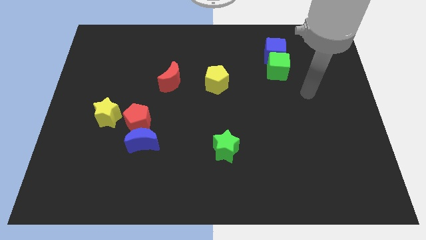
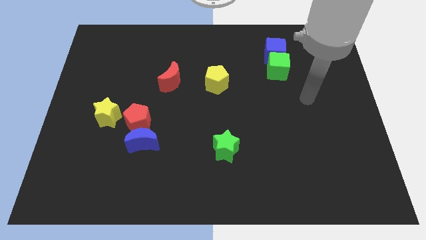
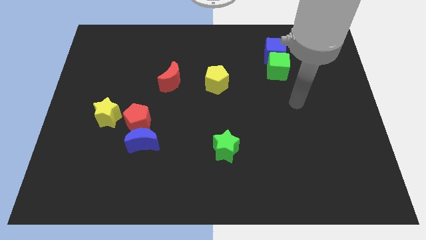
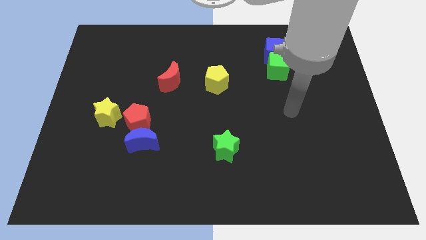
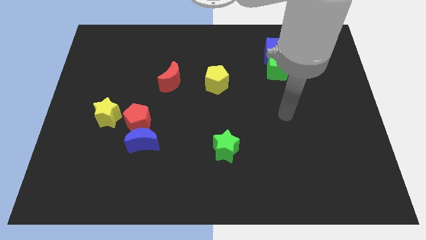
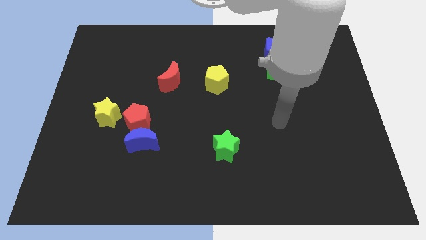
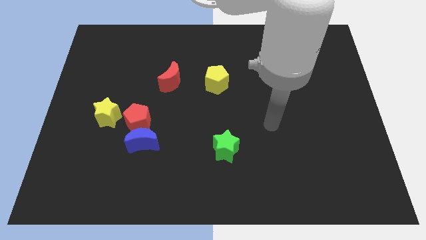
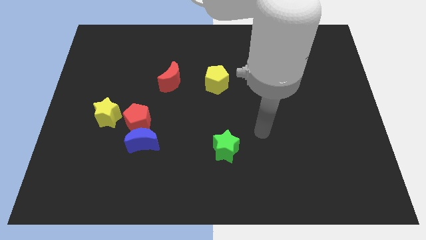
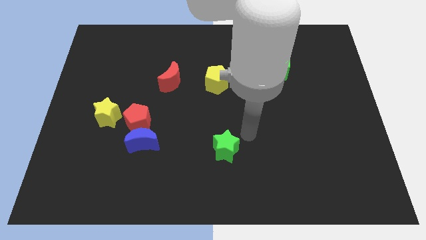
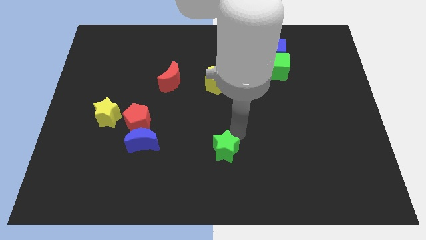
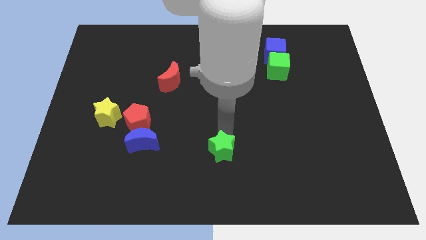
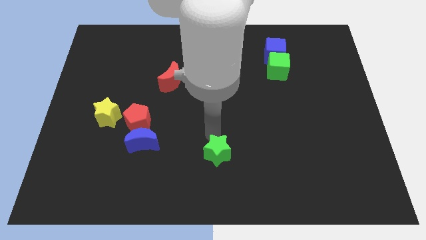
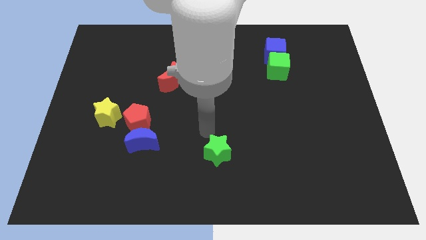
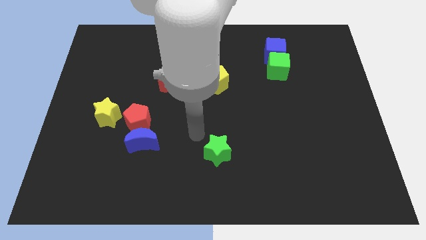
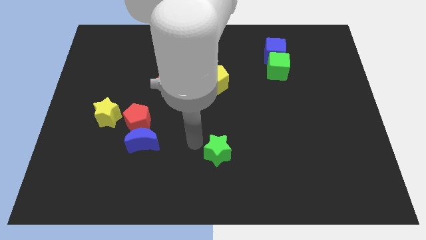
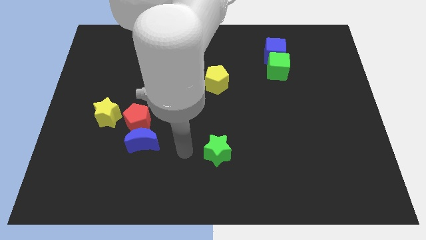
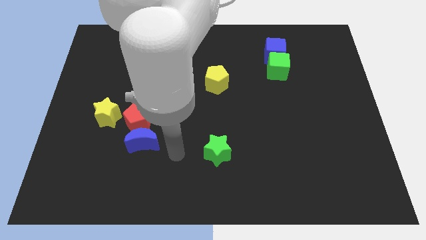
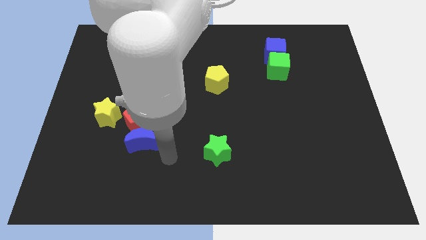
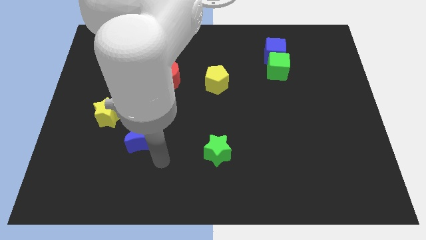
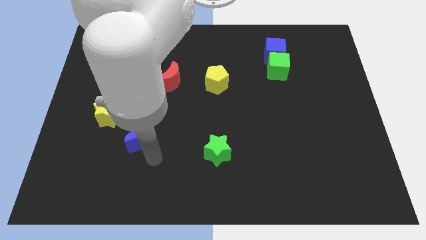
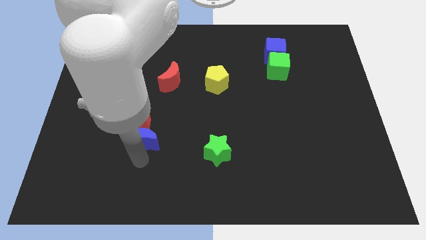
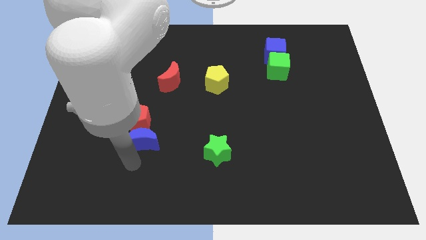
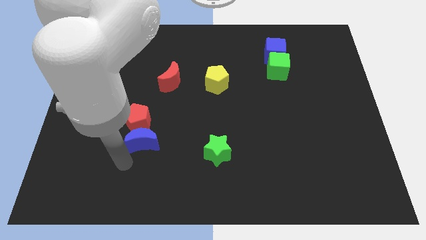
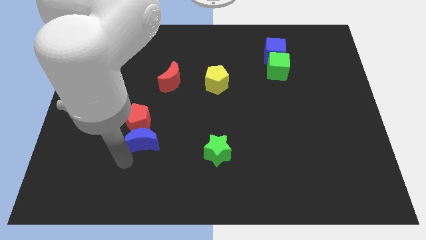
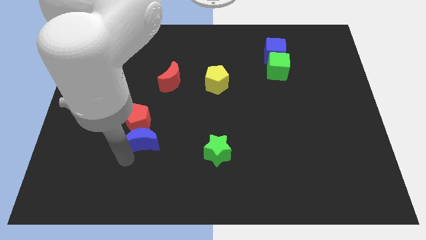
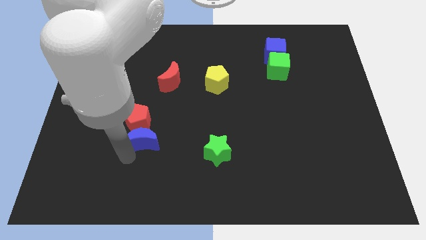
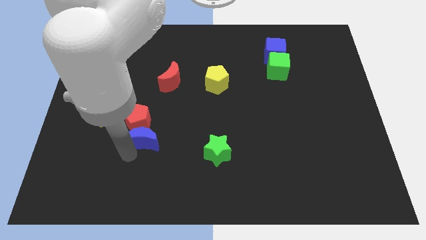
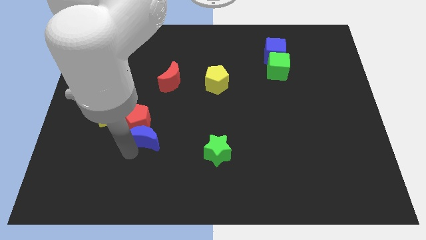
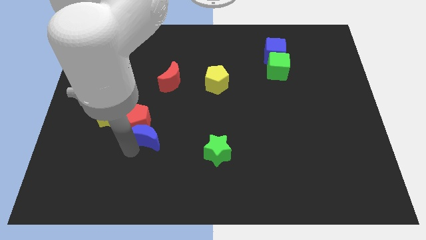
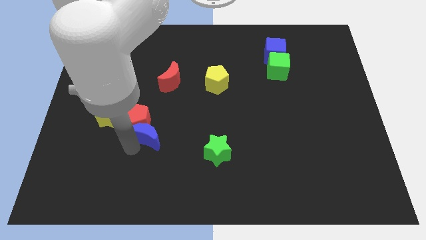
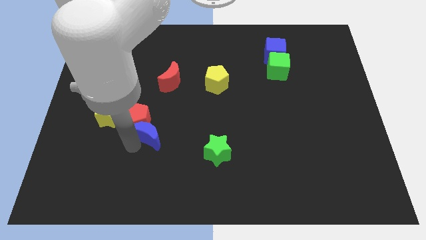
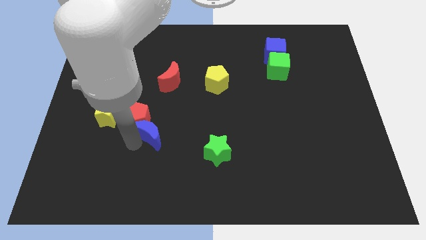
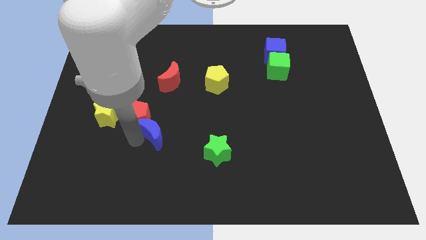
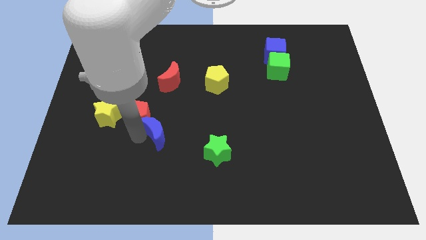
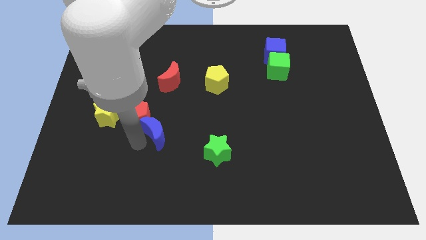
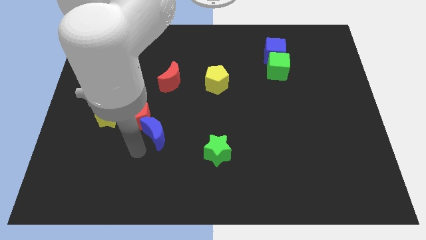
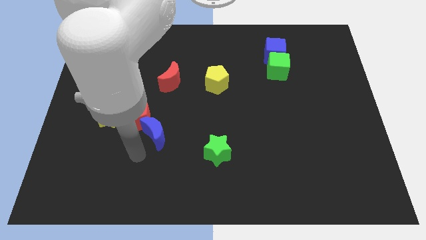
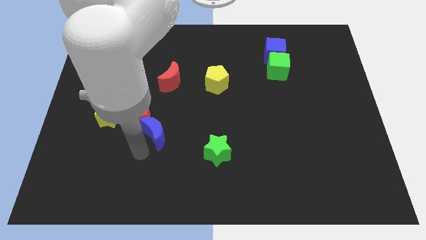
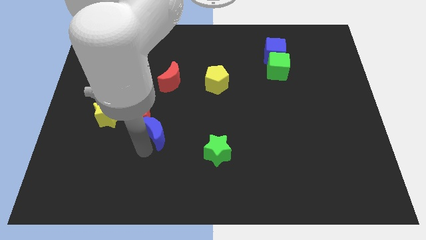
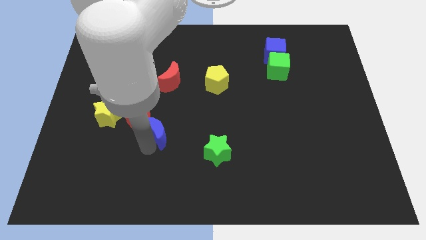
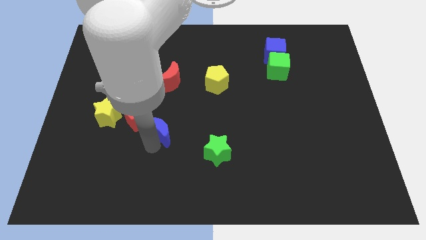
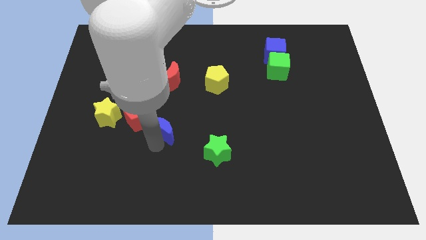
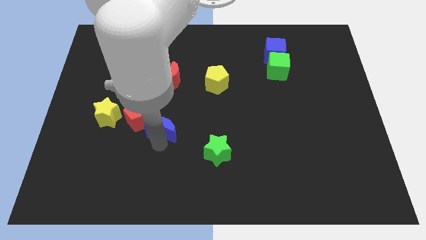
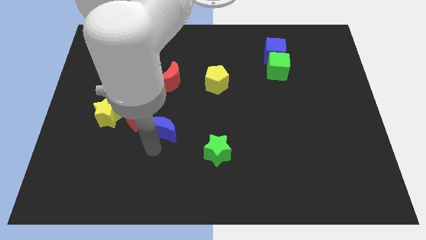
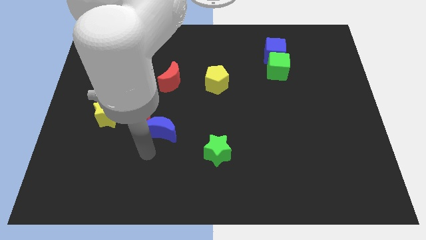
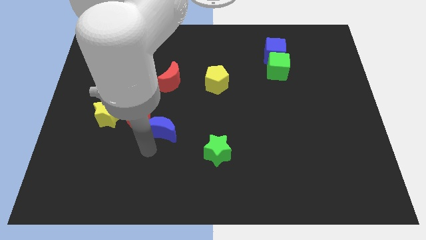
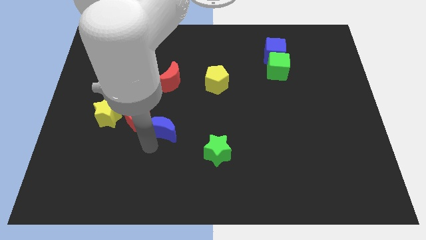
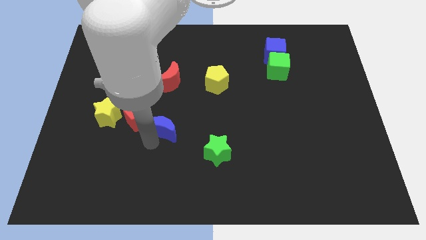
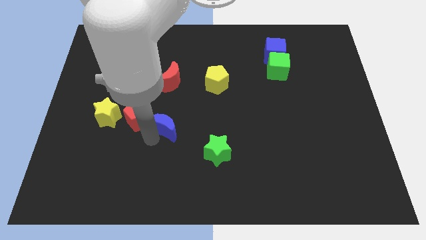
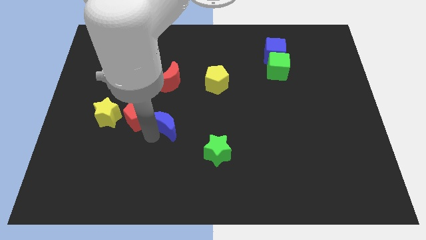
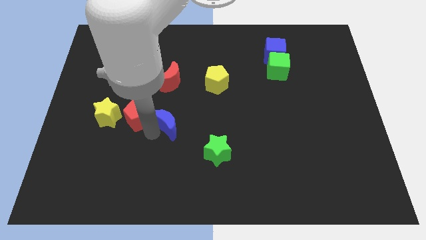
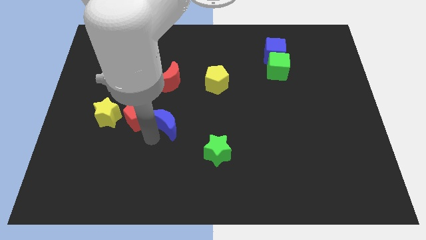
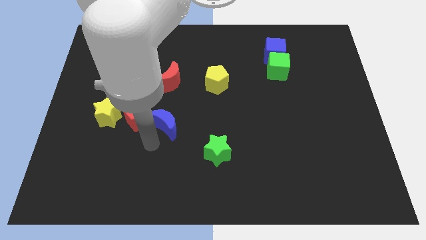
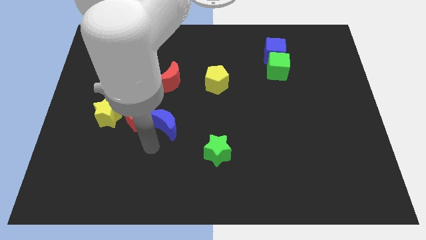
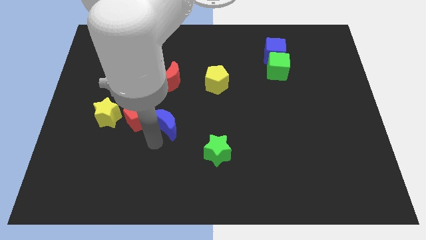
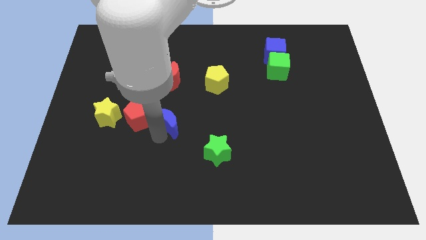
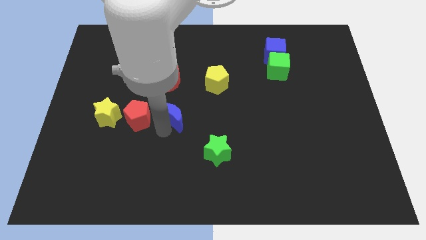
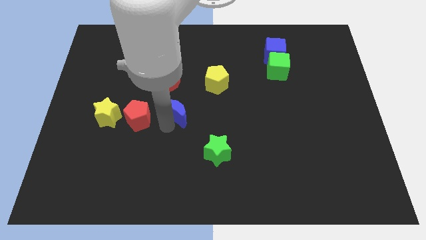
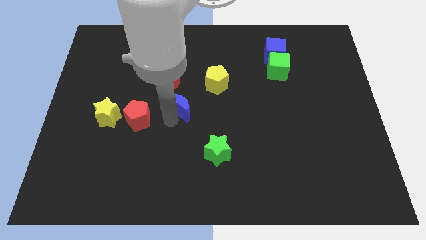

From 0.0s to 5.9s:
move the blue moon diagonally down and to the right of the red moon

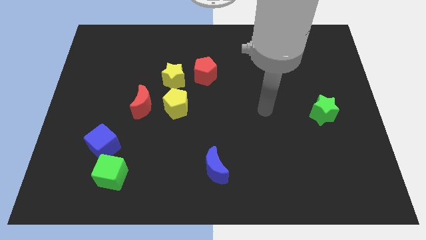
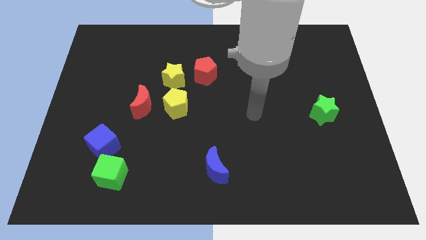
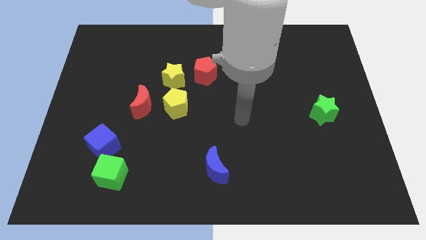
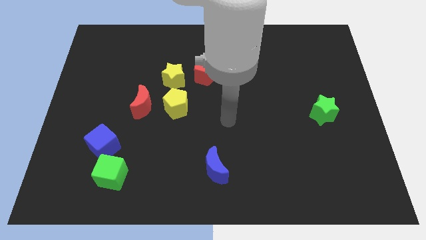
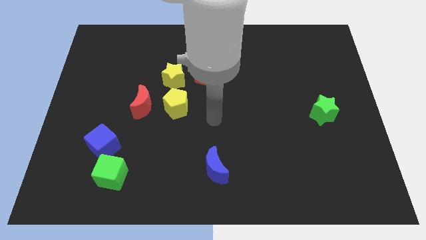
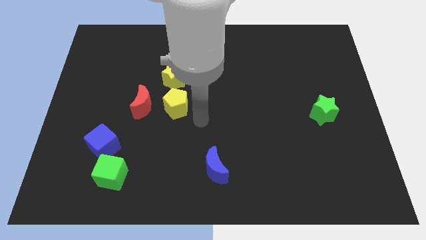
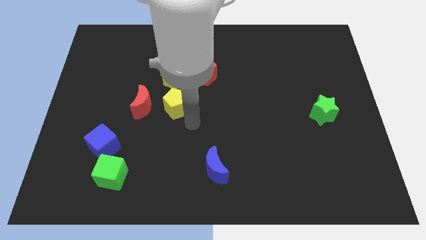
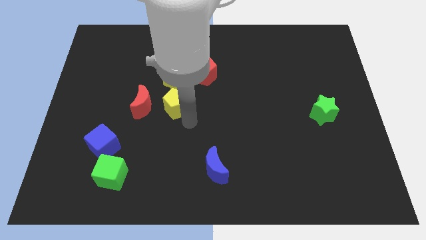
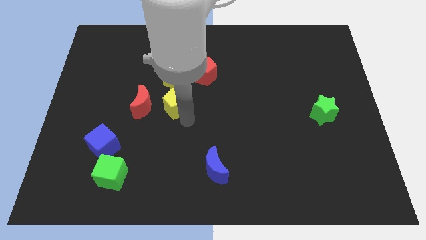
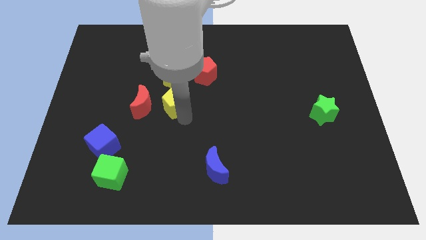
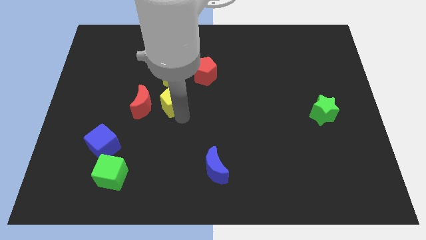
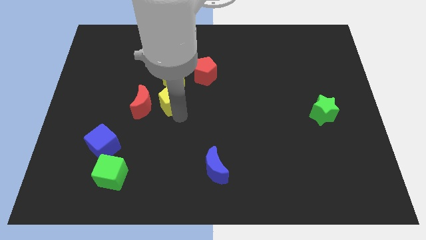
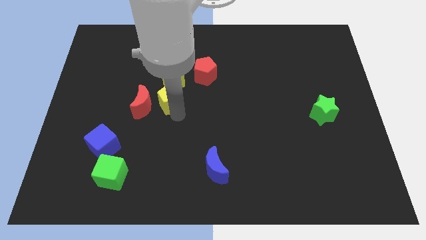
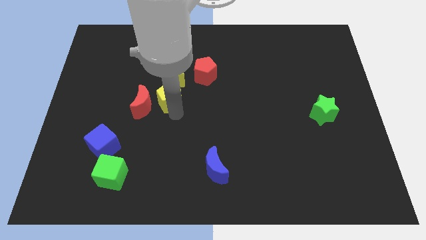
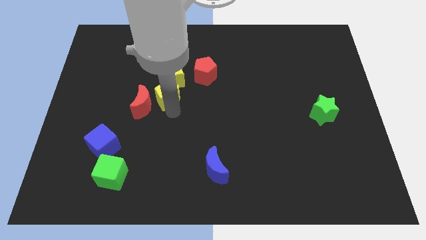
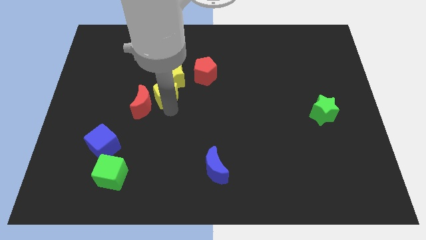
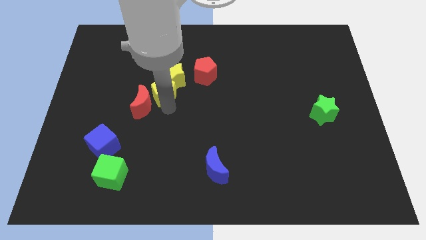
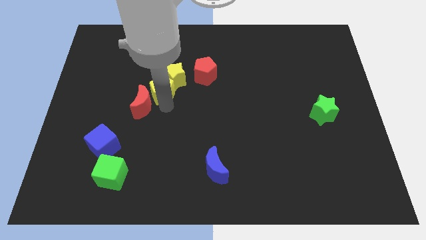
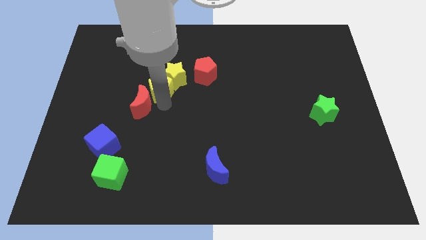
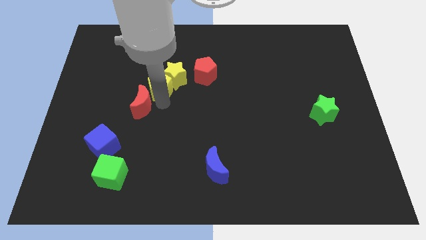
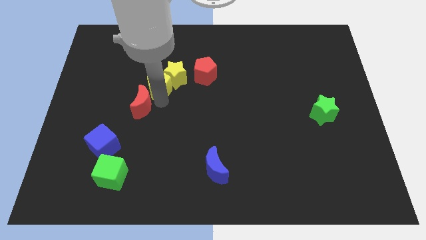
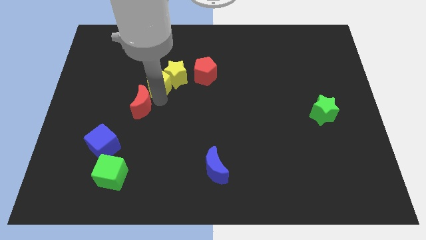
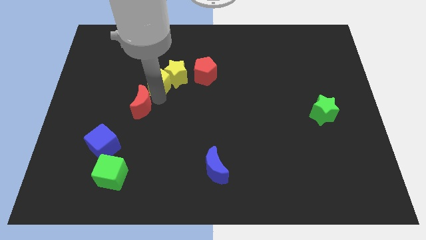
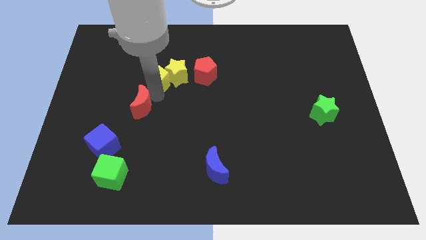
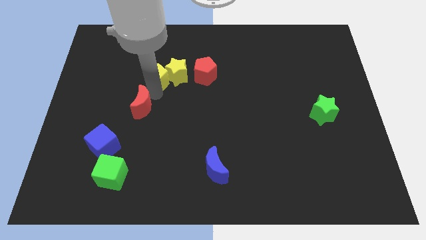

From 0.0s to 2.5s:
move the yellow pentagon to the top left of the yellow star
